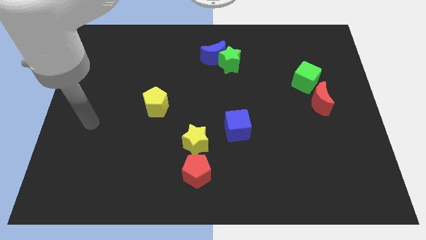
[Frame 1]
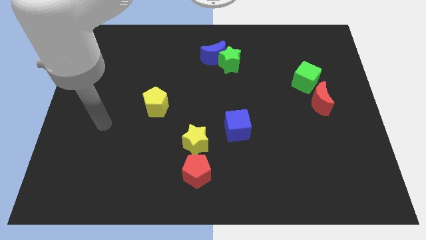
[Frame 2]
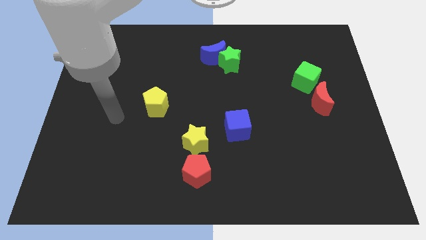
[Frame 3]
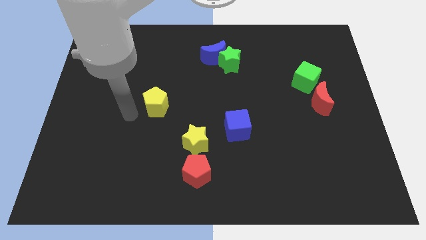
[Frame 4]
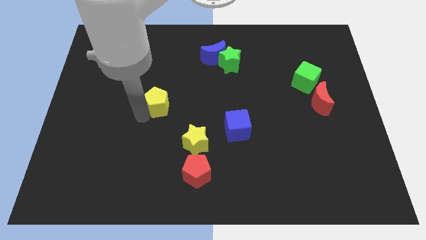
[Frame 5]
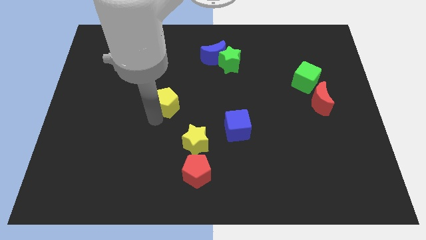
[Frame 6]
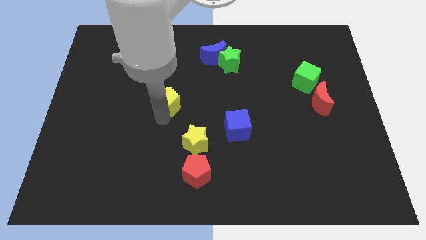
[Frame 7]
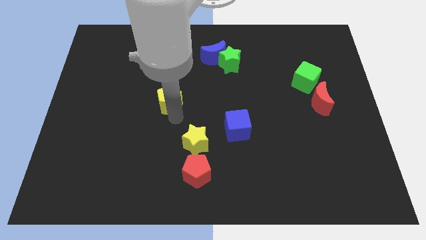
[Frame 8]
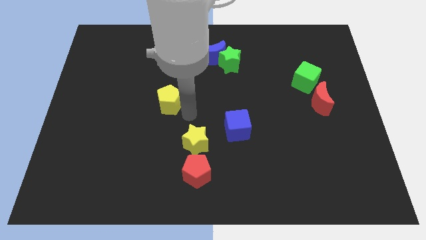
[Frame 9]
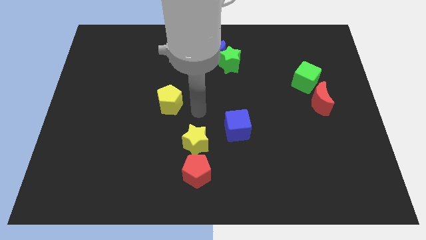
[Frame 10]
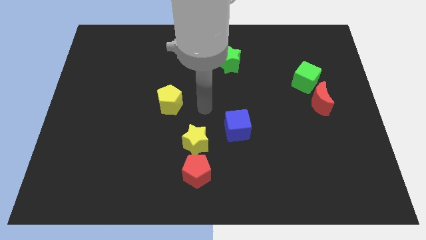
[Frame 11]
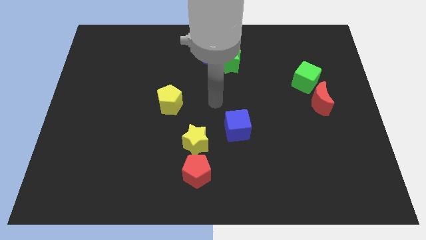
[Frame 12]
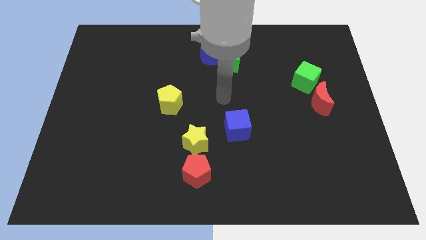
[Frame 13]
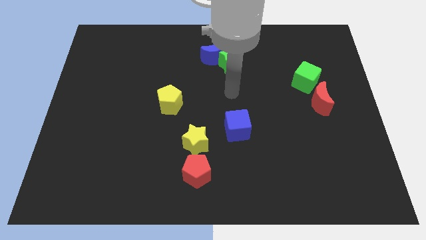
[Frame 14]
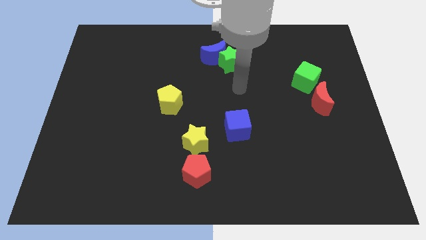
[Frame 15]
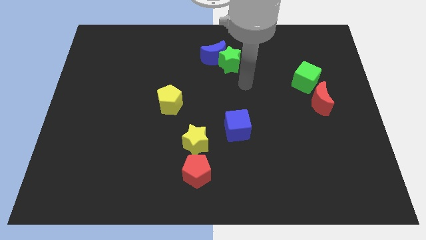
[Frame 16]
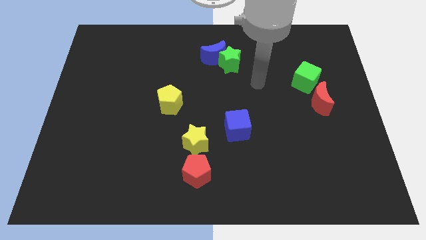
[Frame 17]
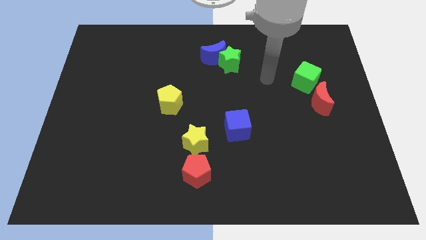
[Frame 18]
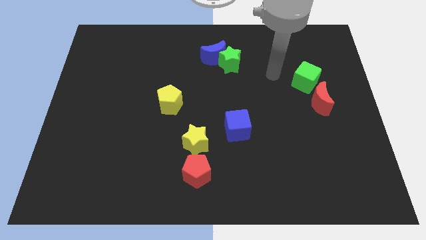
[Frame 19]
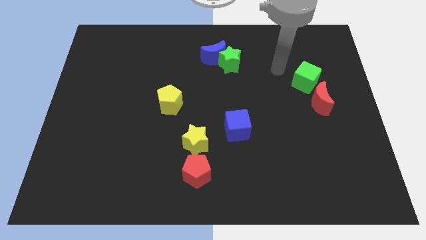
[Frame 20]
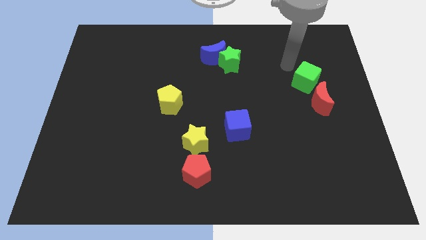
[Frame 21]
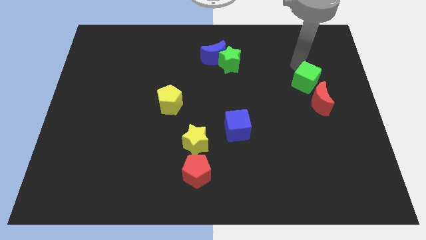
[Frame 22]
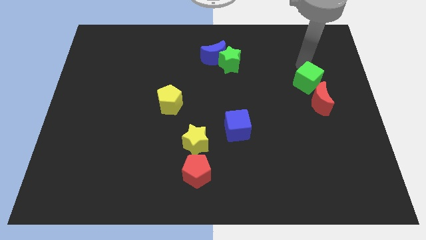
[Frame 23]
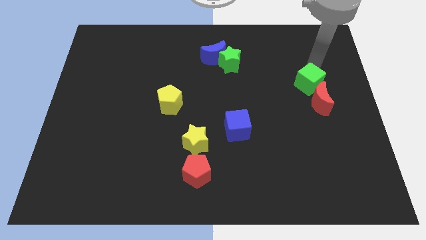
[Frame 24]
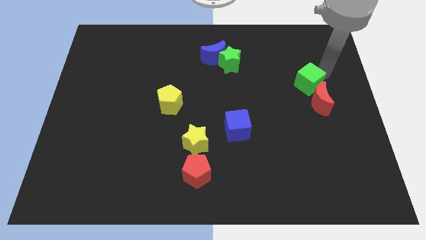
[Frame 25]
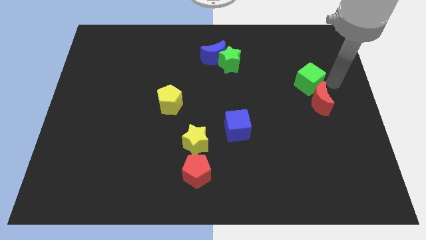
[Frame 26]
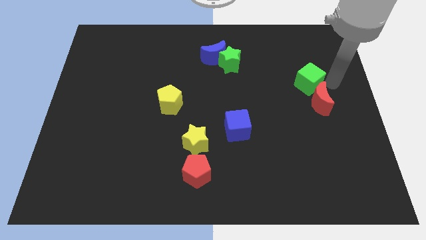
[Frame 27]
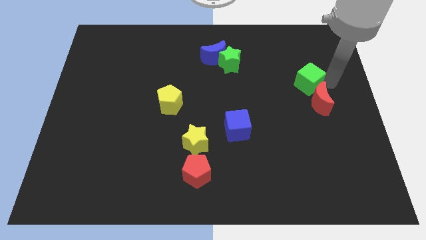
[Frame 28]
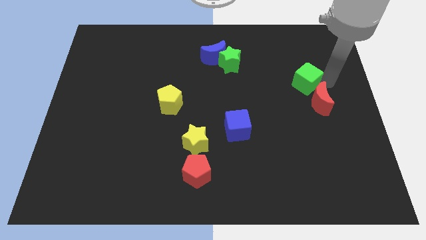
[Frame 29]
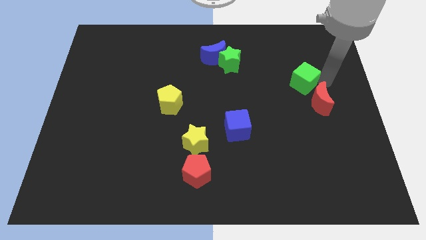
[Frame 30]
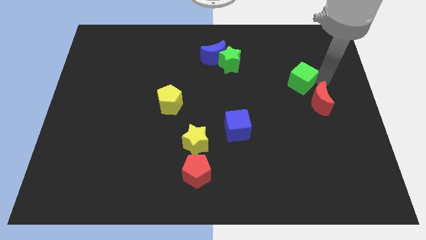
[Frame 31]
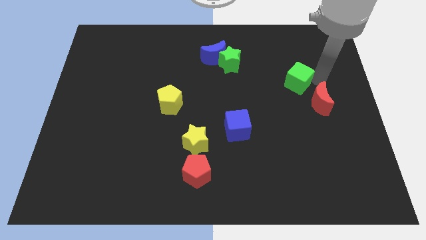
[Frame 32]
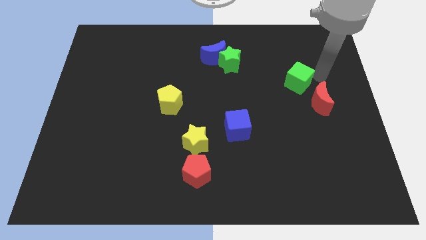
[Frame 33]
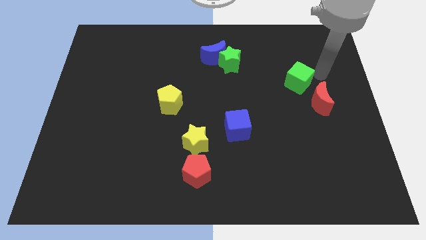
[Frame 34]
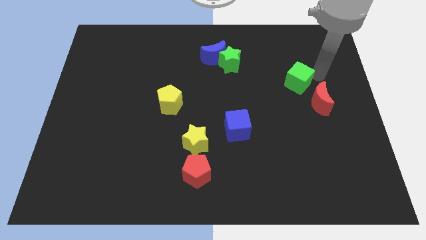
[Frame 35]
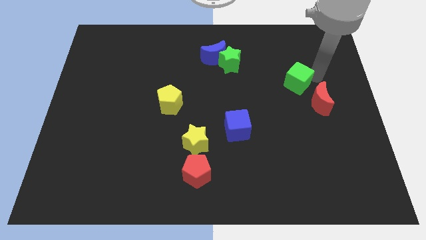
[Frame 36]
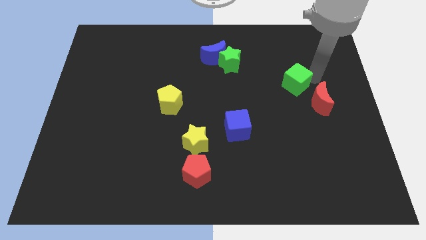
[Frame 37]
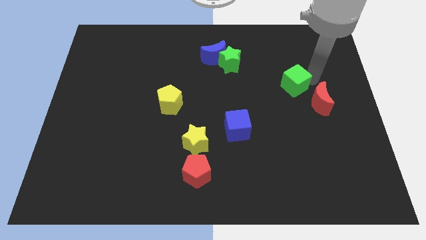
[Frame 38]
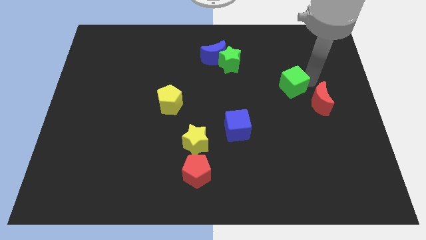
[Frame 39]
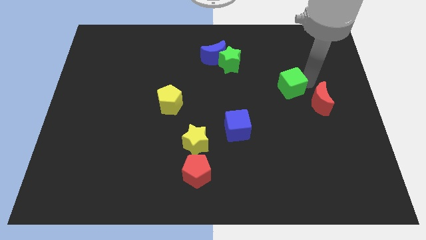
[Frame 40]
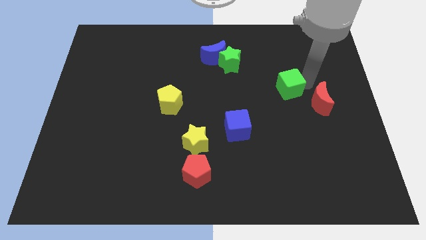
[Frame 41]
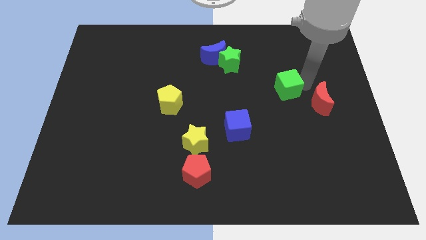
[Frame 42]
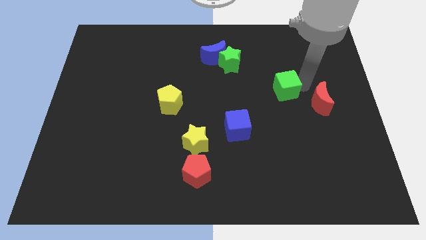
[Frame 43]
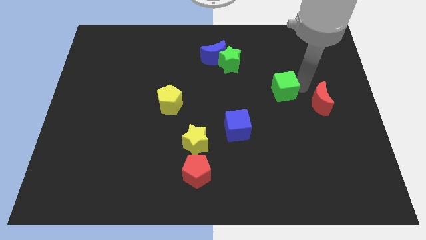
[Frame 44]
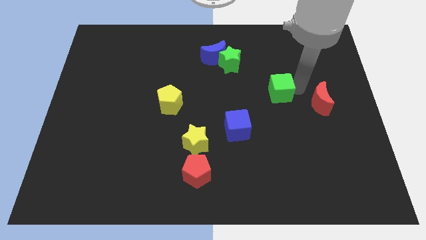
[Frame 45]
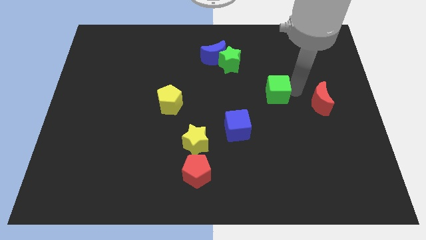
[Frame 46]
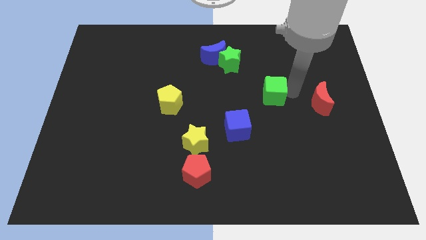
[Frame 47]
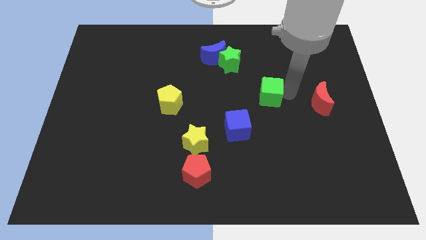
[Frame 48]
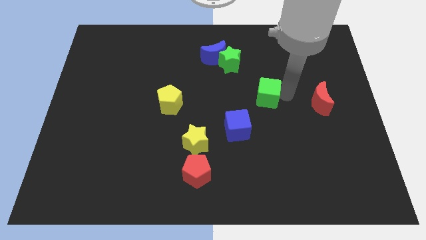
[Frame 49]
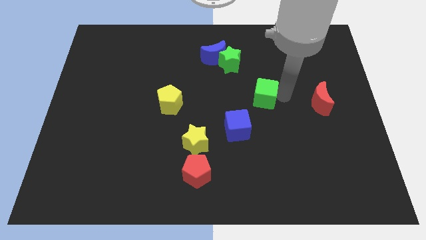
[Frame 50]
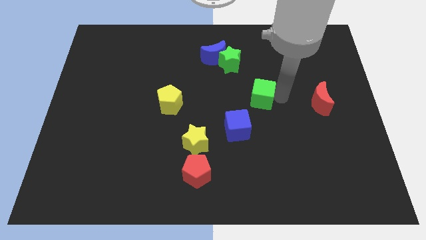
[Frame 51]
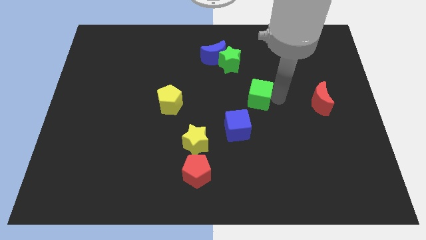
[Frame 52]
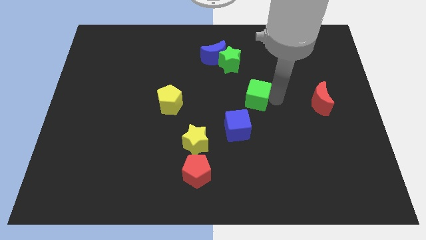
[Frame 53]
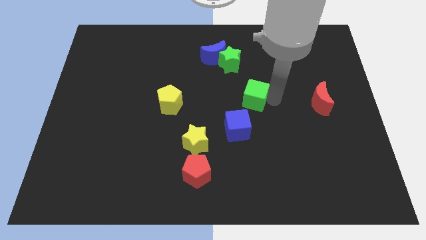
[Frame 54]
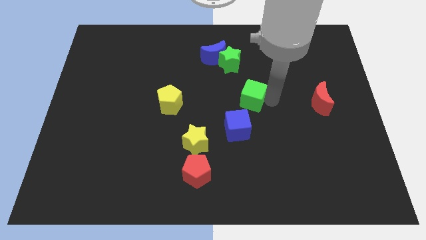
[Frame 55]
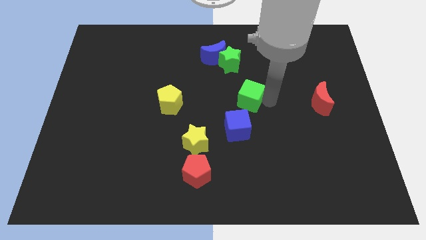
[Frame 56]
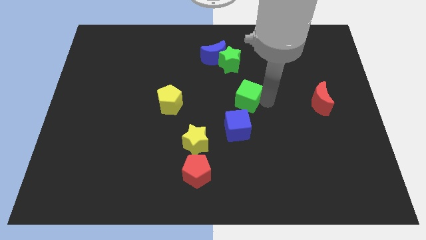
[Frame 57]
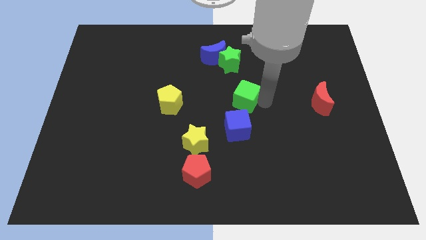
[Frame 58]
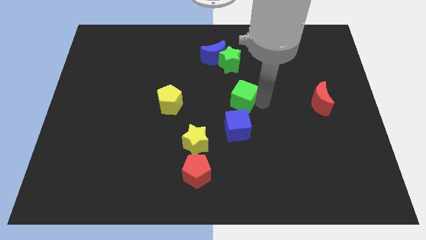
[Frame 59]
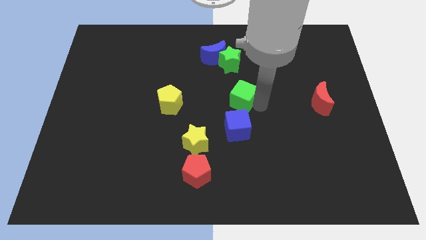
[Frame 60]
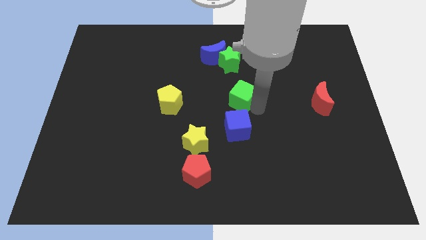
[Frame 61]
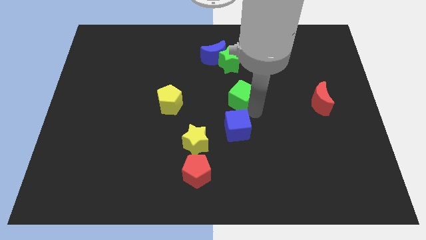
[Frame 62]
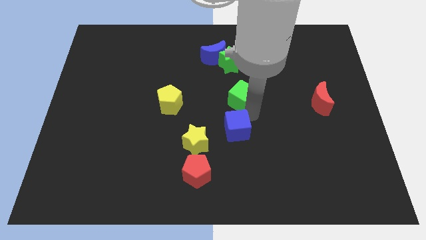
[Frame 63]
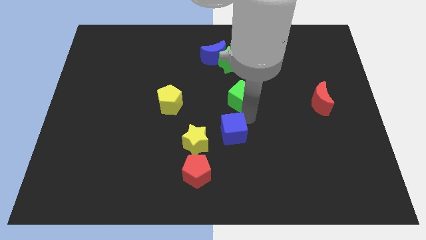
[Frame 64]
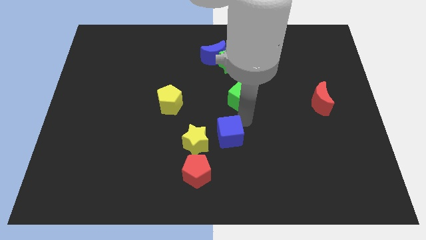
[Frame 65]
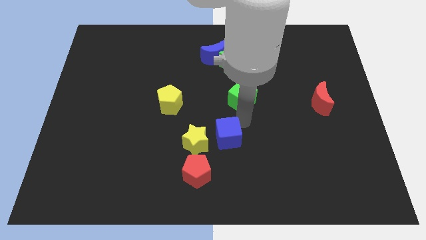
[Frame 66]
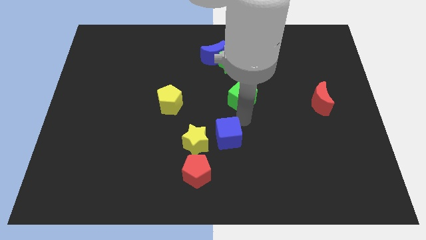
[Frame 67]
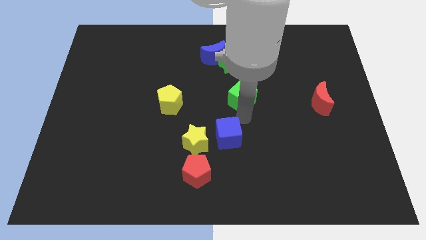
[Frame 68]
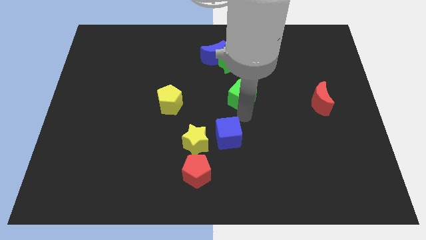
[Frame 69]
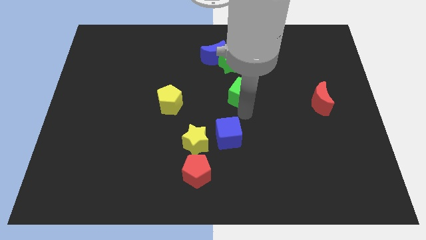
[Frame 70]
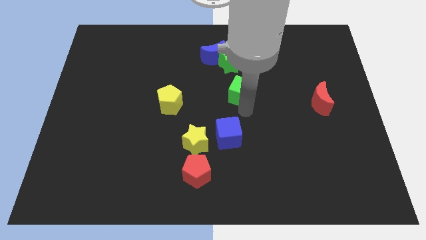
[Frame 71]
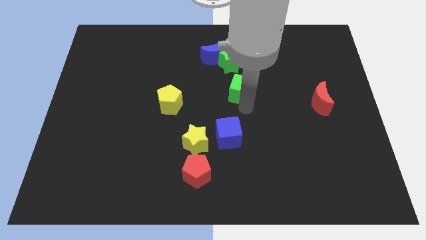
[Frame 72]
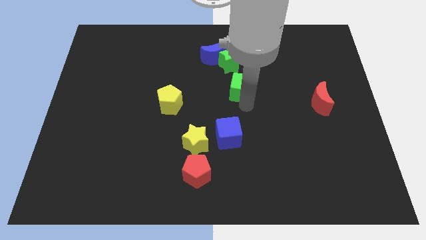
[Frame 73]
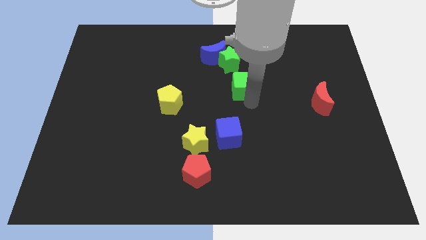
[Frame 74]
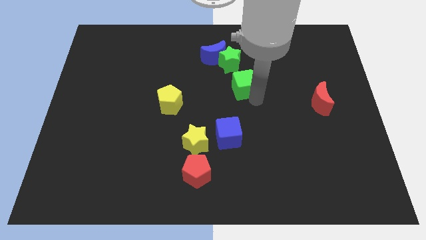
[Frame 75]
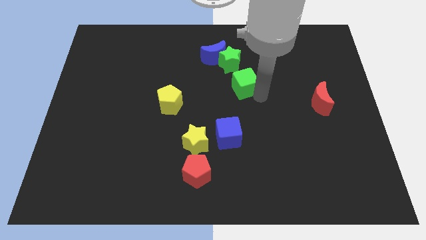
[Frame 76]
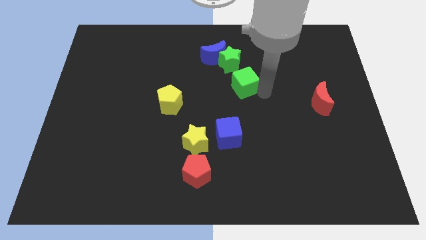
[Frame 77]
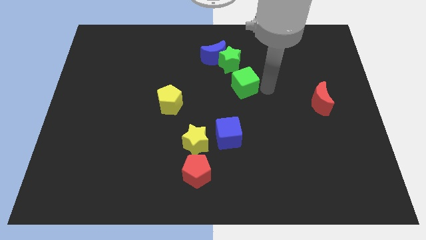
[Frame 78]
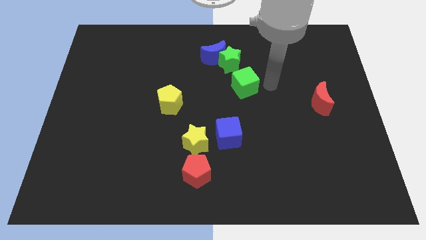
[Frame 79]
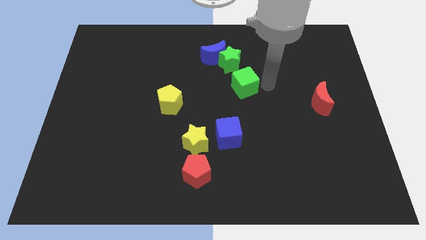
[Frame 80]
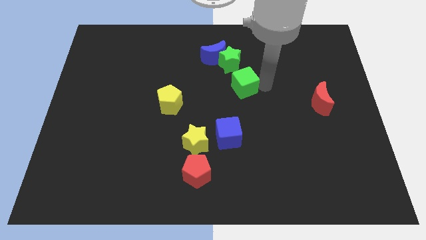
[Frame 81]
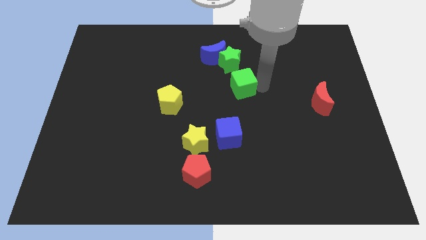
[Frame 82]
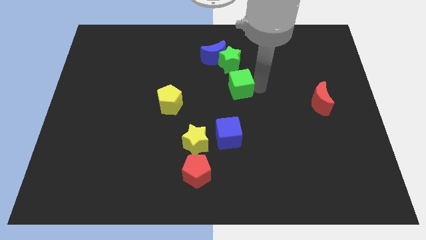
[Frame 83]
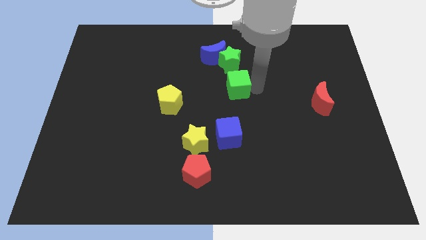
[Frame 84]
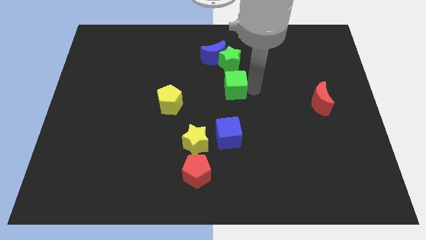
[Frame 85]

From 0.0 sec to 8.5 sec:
put the green cube to the bottom side of the blue moon
